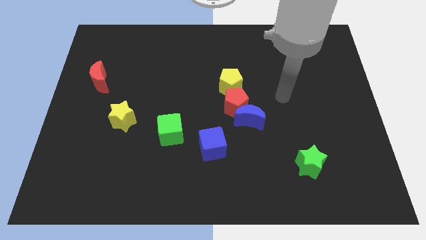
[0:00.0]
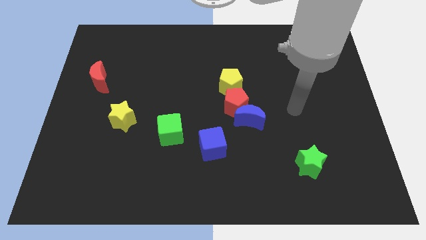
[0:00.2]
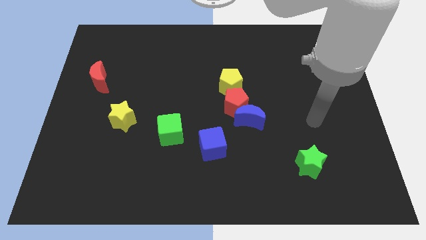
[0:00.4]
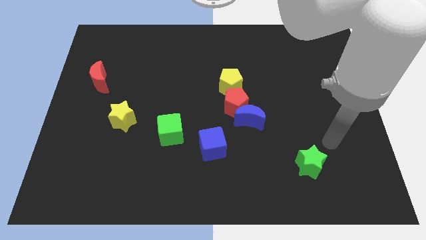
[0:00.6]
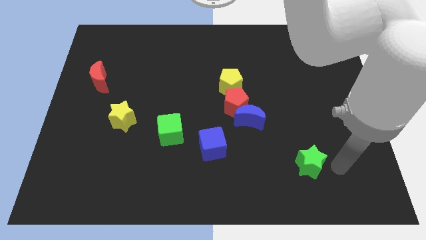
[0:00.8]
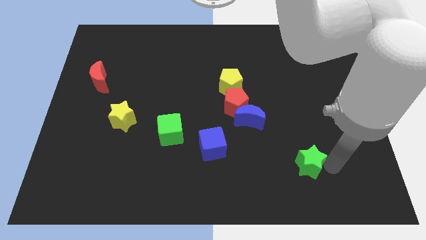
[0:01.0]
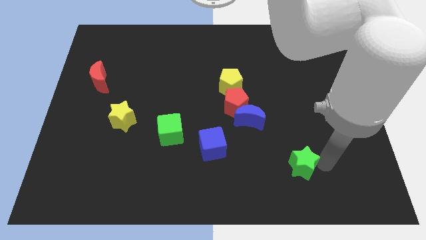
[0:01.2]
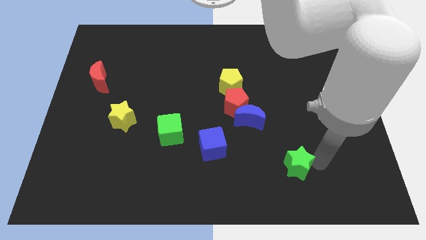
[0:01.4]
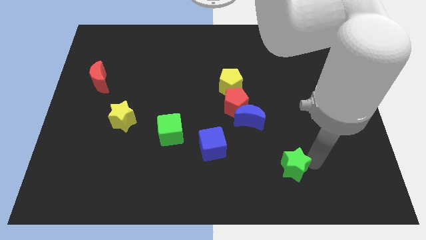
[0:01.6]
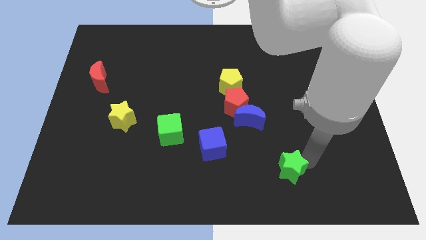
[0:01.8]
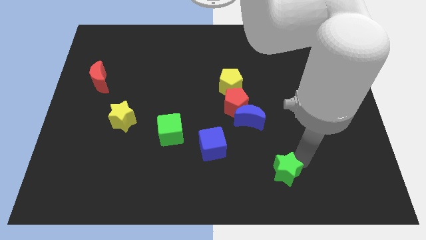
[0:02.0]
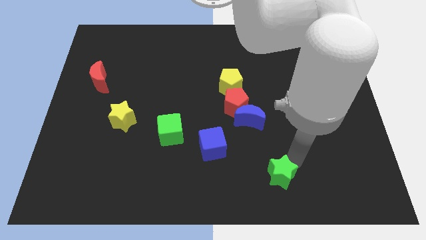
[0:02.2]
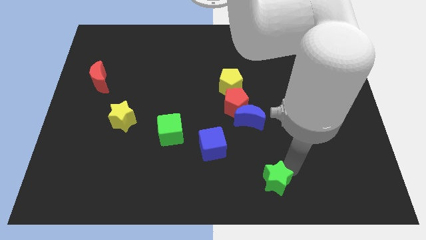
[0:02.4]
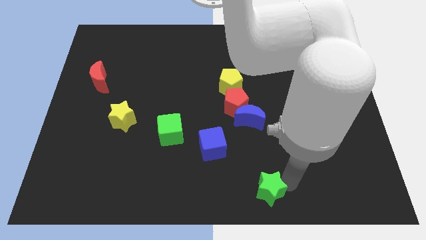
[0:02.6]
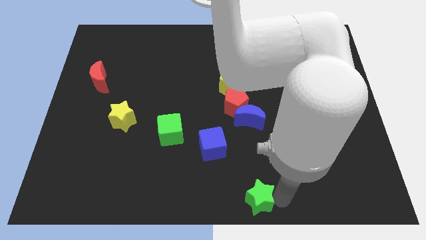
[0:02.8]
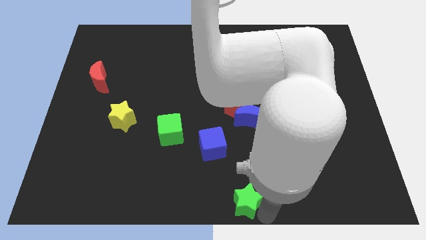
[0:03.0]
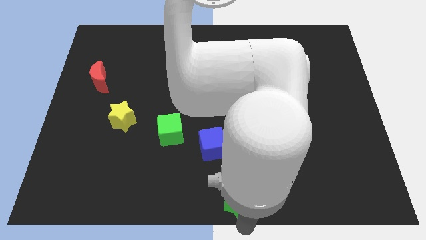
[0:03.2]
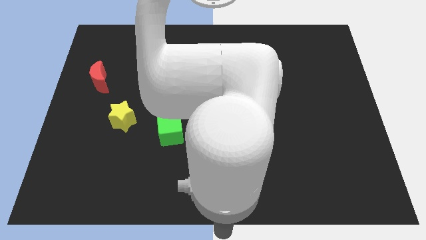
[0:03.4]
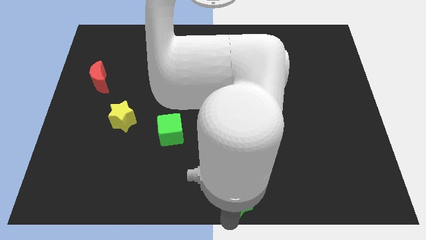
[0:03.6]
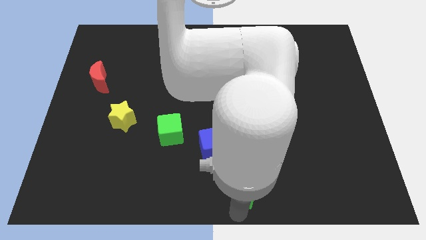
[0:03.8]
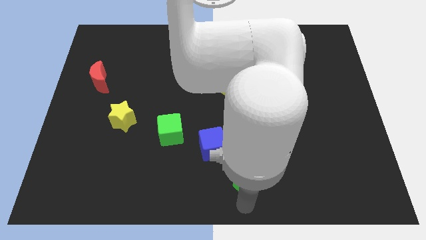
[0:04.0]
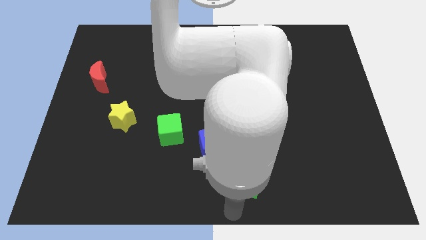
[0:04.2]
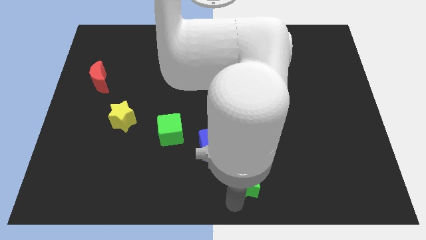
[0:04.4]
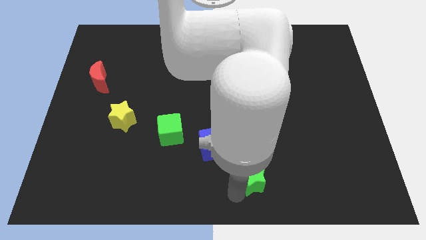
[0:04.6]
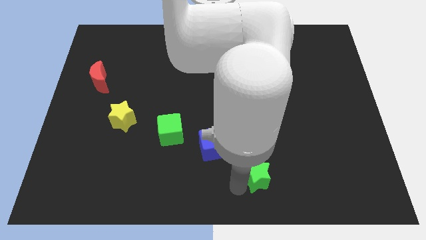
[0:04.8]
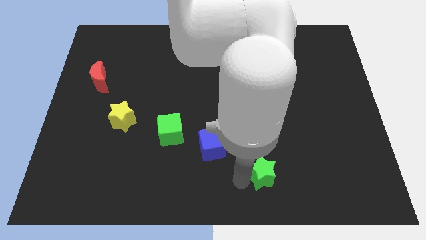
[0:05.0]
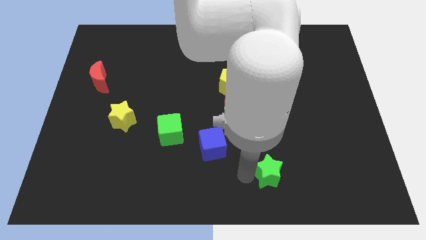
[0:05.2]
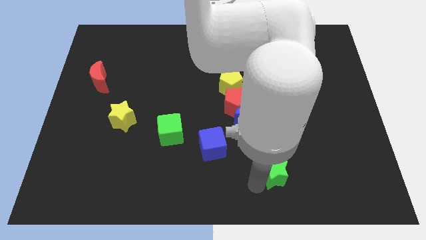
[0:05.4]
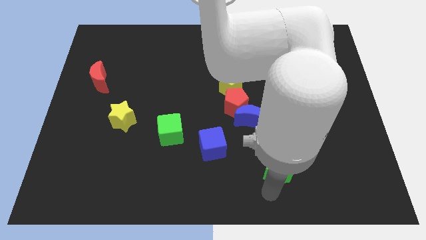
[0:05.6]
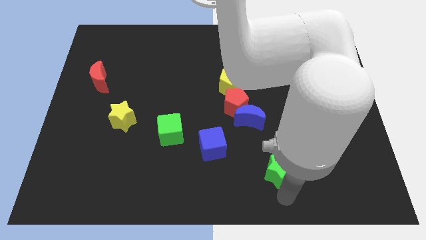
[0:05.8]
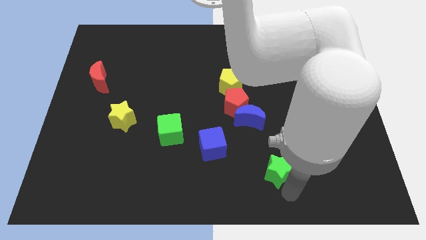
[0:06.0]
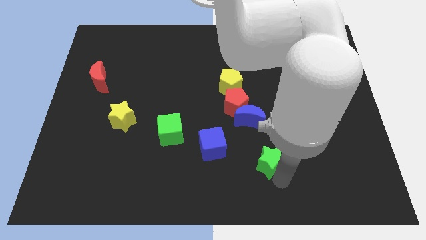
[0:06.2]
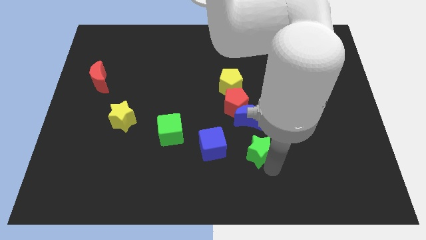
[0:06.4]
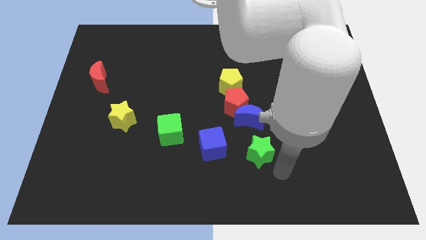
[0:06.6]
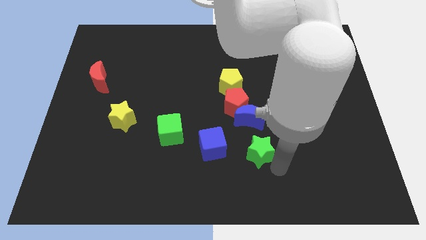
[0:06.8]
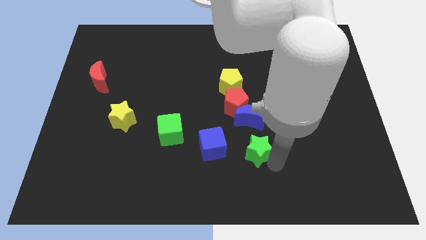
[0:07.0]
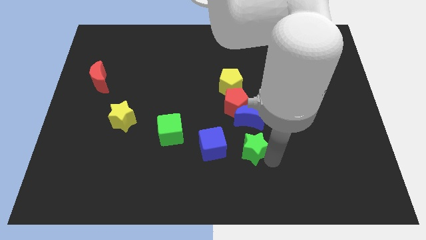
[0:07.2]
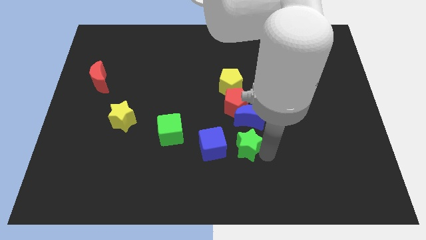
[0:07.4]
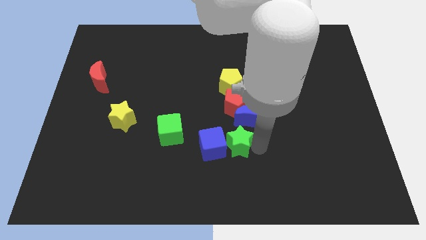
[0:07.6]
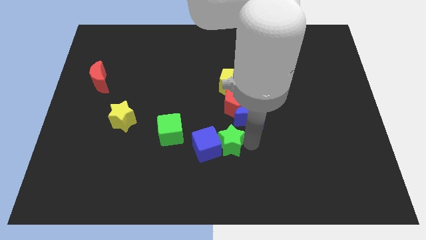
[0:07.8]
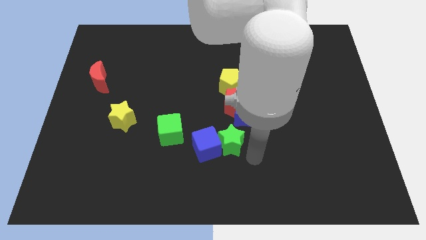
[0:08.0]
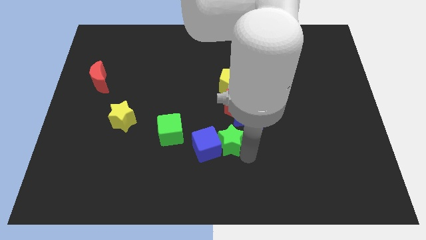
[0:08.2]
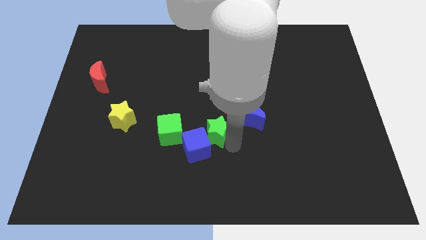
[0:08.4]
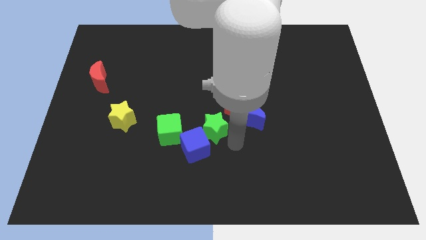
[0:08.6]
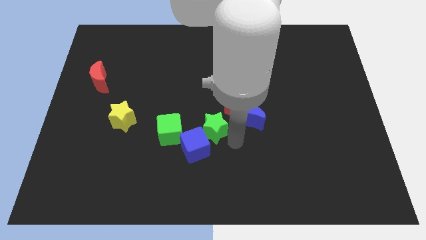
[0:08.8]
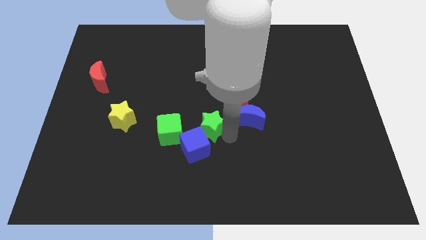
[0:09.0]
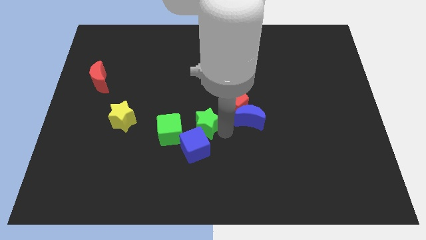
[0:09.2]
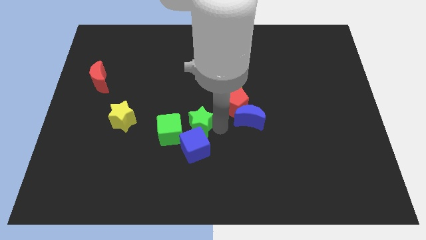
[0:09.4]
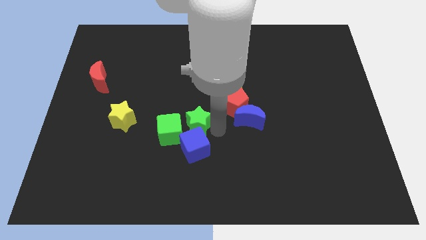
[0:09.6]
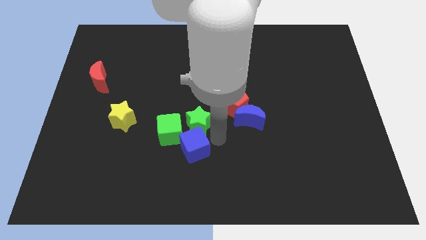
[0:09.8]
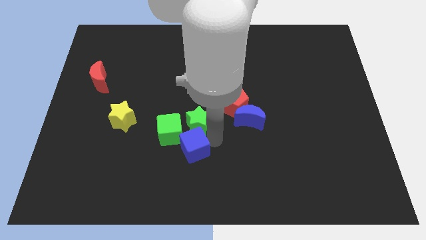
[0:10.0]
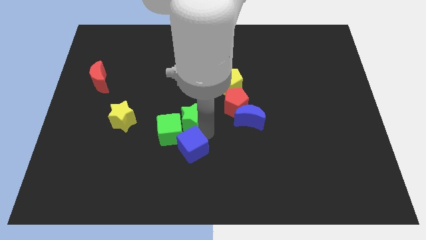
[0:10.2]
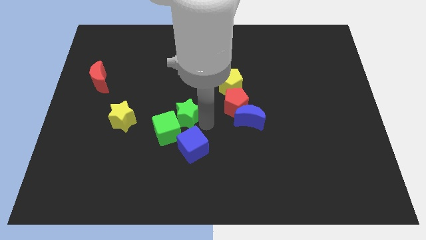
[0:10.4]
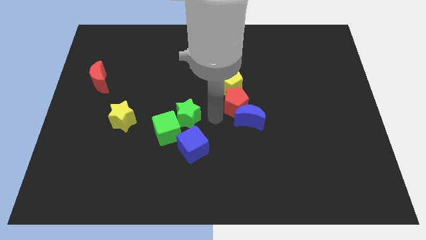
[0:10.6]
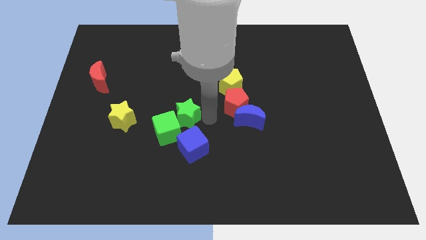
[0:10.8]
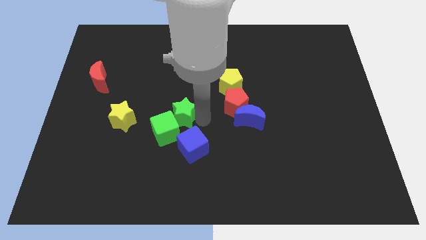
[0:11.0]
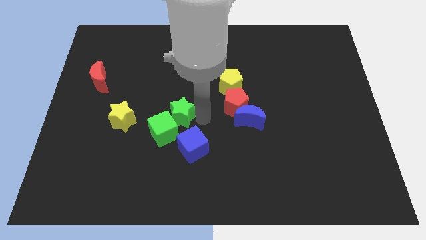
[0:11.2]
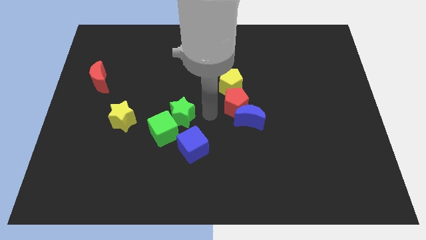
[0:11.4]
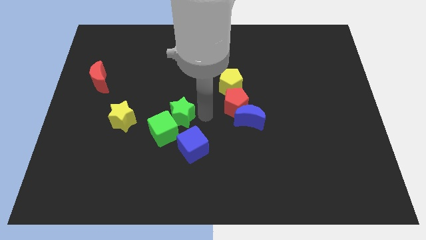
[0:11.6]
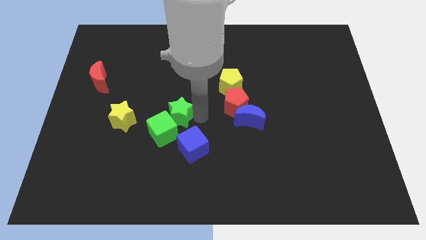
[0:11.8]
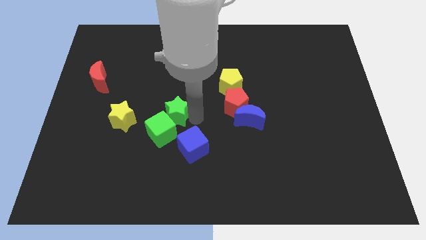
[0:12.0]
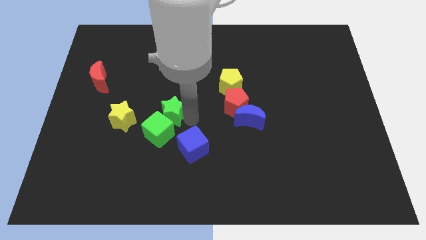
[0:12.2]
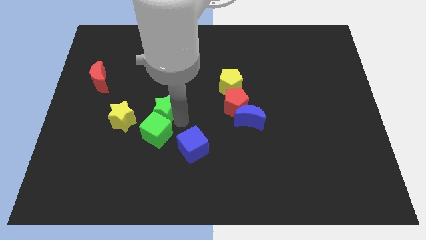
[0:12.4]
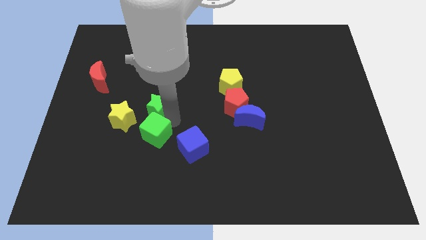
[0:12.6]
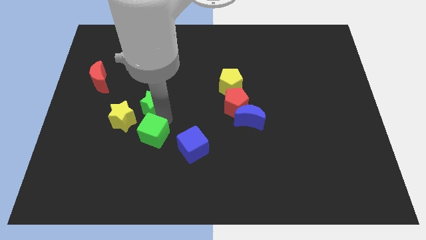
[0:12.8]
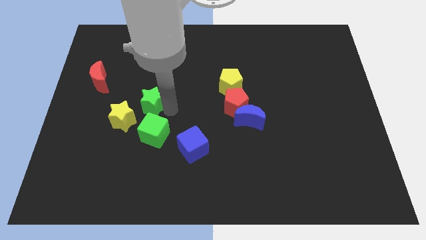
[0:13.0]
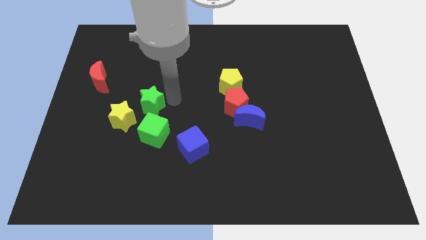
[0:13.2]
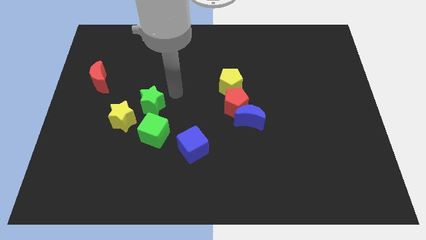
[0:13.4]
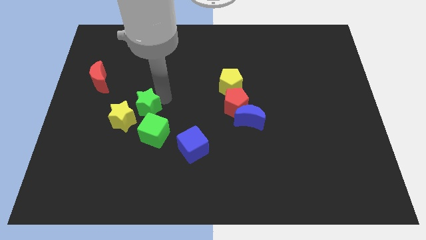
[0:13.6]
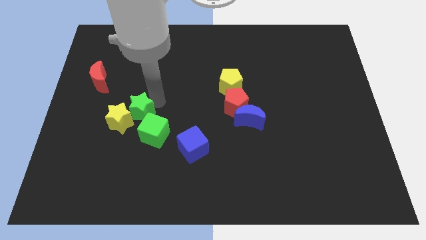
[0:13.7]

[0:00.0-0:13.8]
slide the green star next to the yellow star
